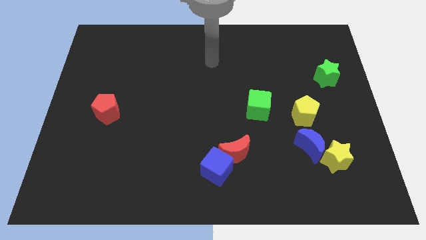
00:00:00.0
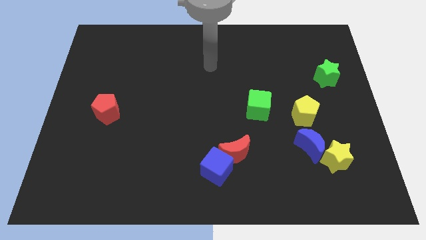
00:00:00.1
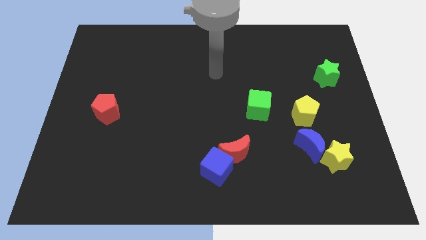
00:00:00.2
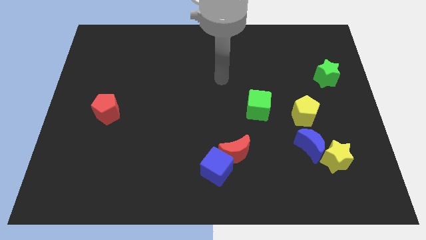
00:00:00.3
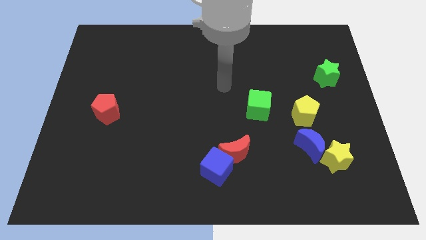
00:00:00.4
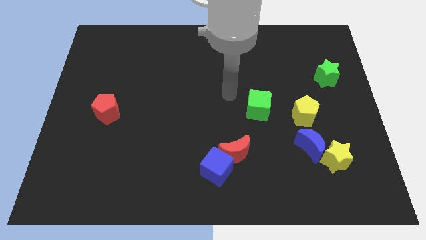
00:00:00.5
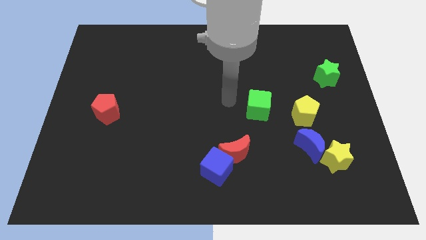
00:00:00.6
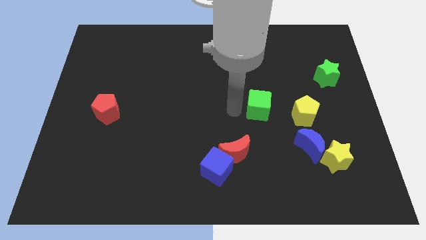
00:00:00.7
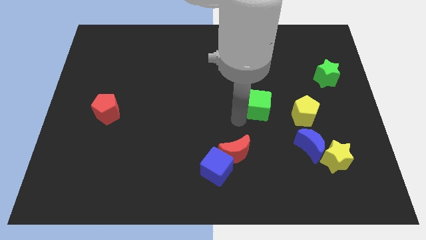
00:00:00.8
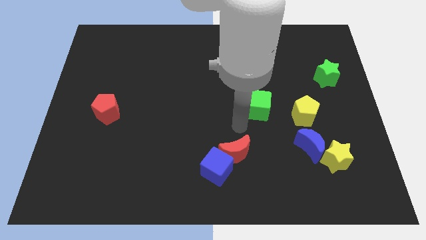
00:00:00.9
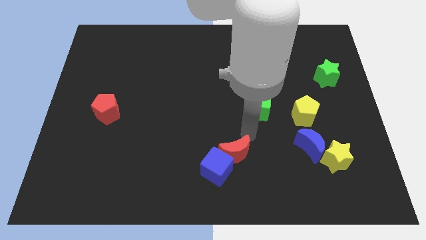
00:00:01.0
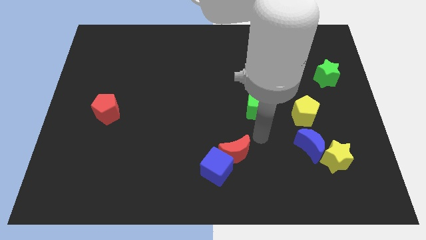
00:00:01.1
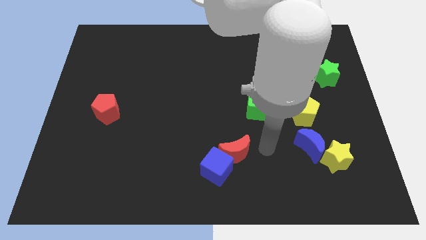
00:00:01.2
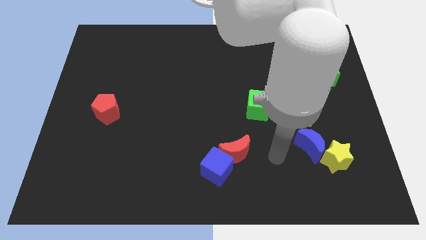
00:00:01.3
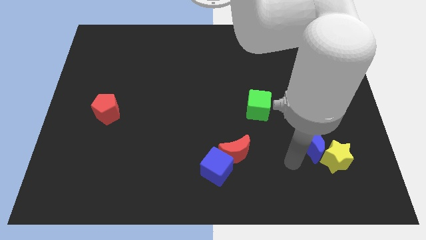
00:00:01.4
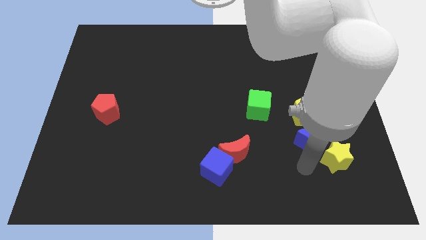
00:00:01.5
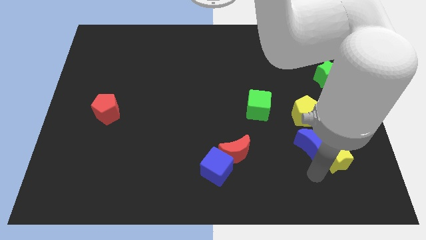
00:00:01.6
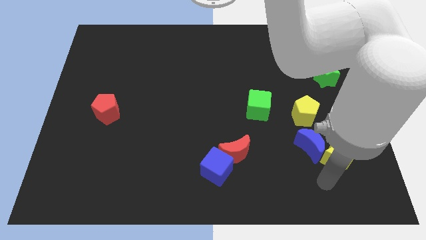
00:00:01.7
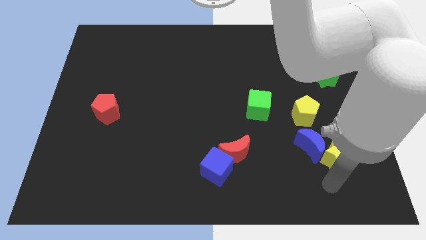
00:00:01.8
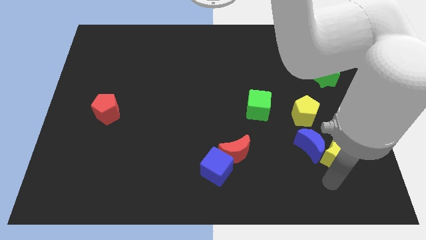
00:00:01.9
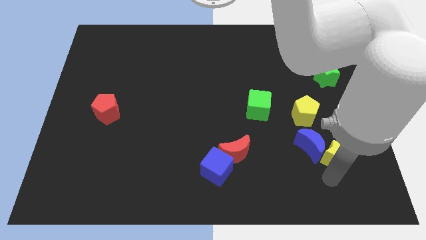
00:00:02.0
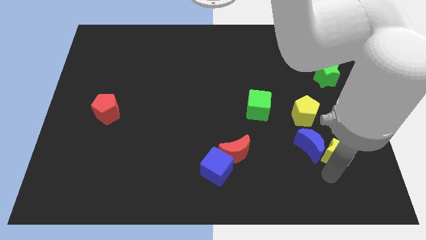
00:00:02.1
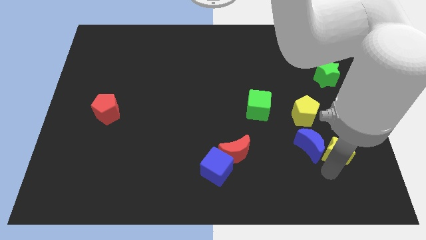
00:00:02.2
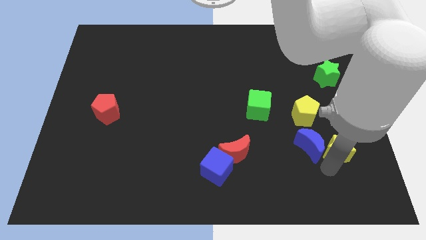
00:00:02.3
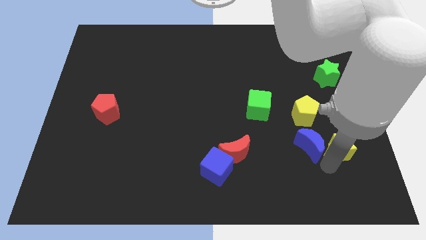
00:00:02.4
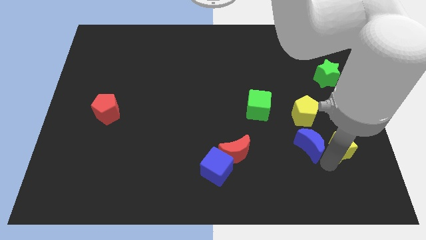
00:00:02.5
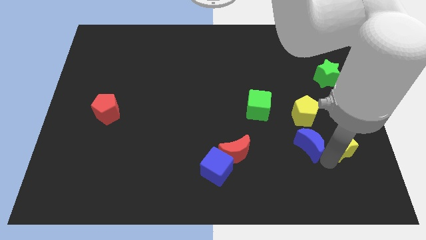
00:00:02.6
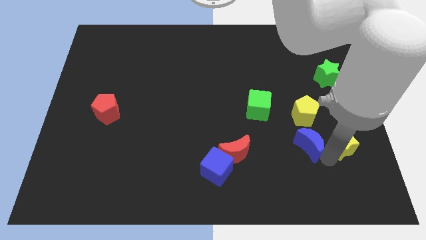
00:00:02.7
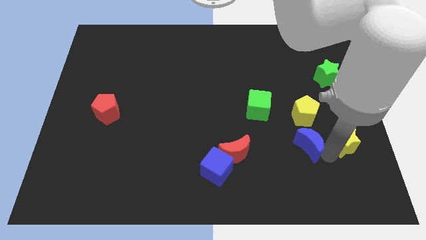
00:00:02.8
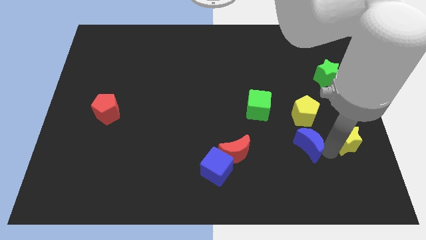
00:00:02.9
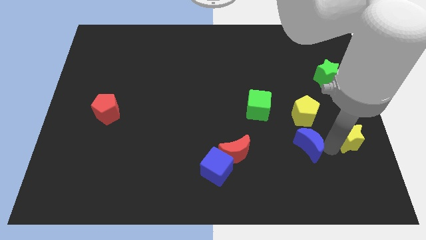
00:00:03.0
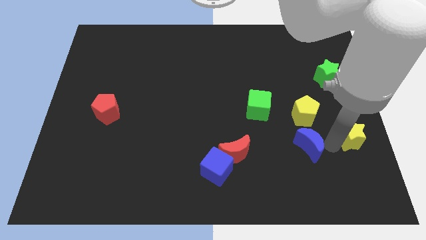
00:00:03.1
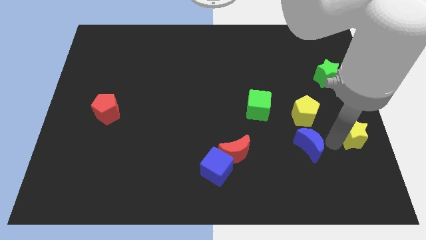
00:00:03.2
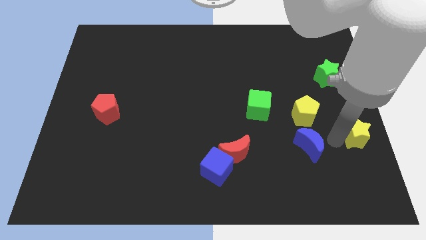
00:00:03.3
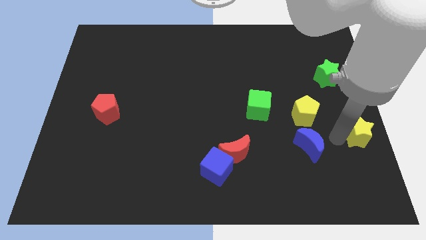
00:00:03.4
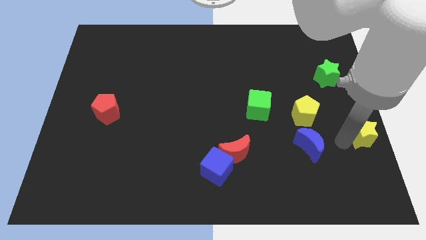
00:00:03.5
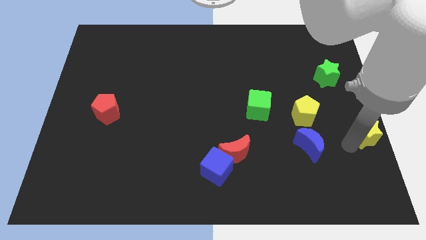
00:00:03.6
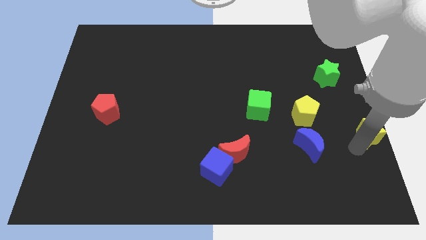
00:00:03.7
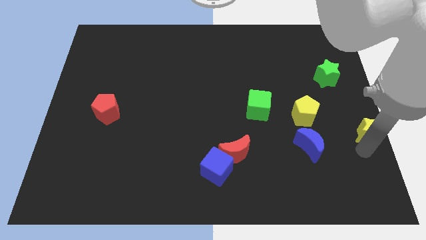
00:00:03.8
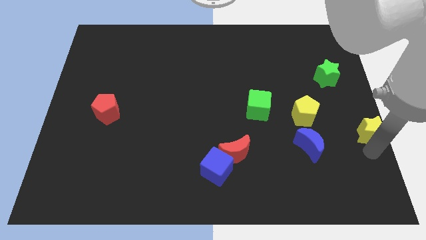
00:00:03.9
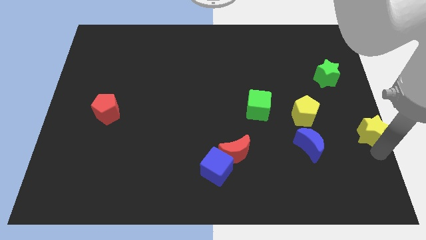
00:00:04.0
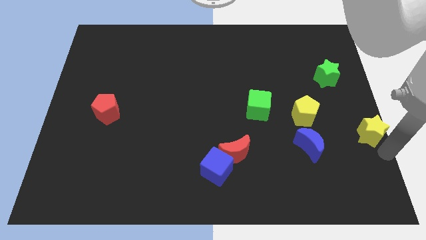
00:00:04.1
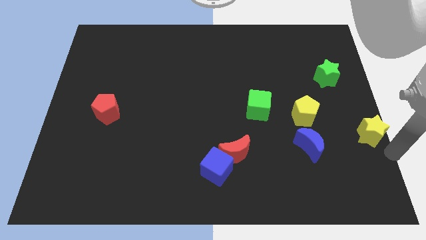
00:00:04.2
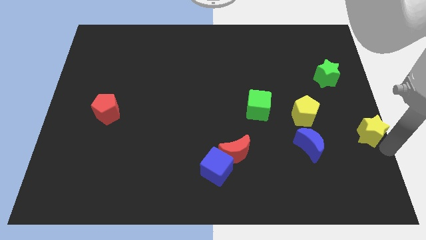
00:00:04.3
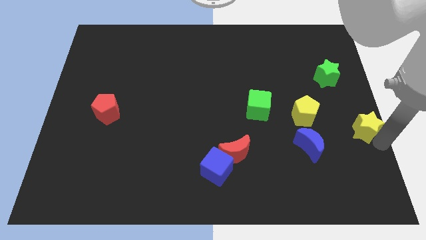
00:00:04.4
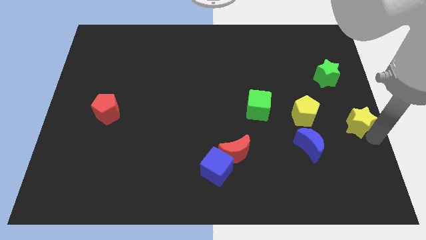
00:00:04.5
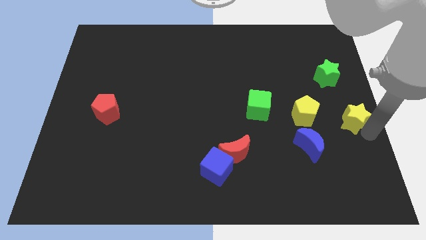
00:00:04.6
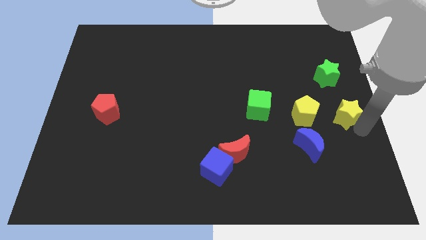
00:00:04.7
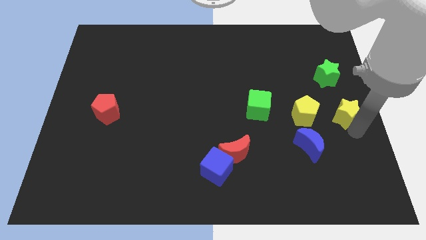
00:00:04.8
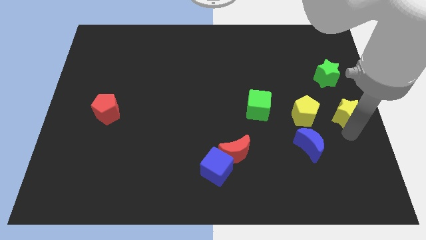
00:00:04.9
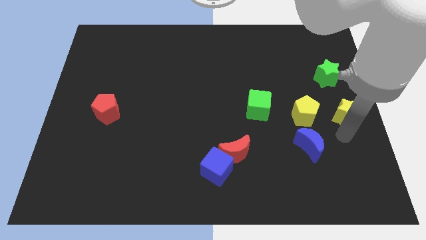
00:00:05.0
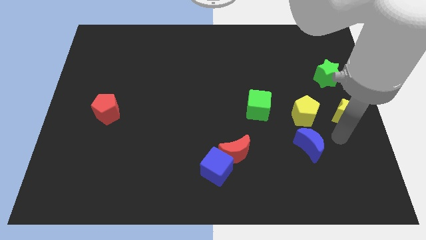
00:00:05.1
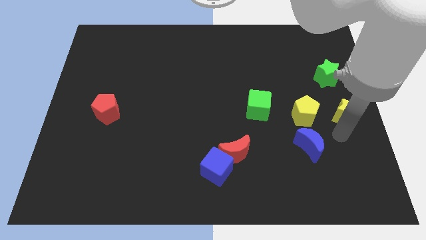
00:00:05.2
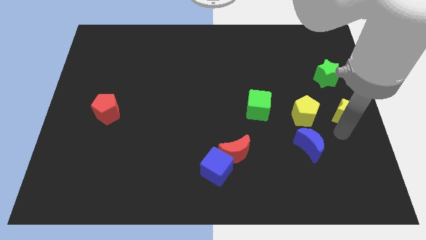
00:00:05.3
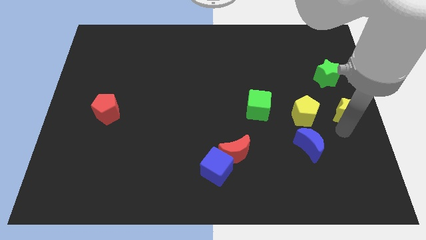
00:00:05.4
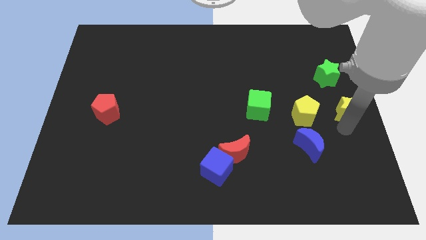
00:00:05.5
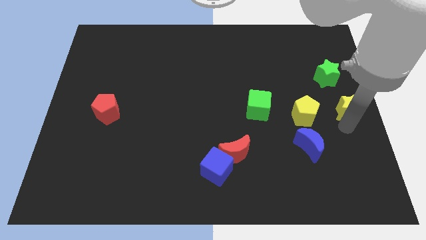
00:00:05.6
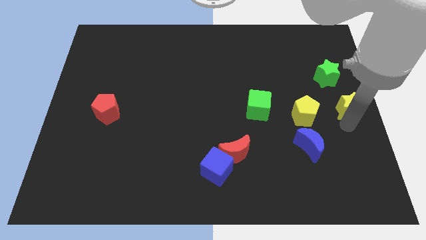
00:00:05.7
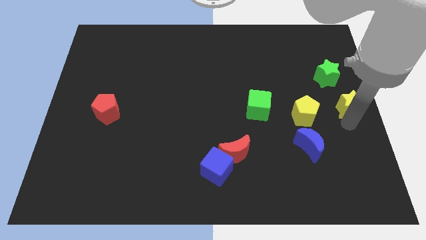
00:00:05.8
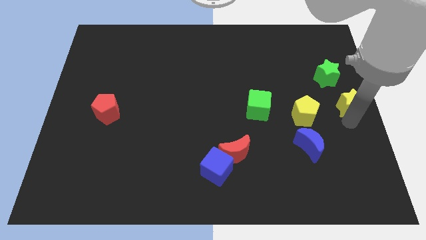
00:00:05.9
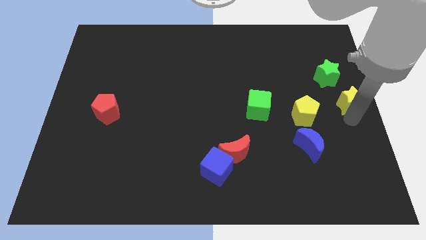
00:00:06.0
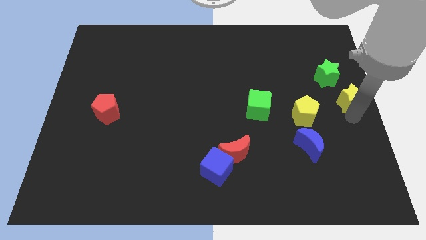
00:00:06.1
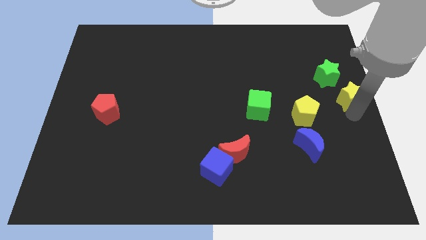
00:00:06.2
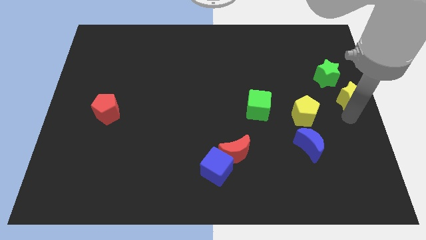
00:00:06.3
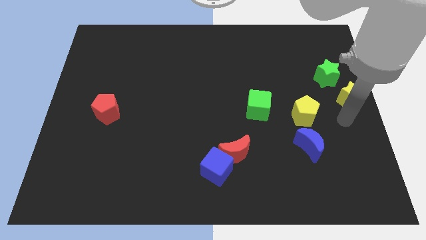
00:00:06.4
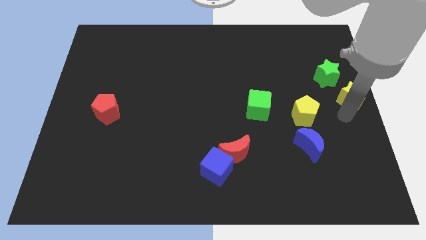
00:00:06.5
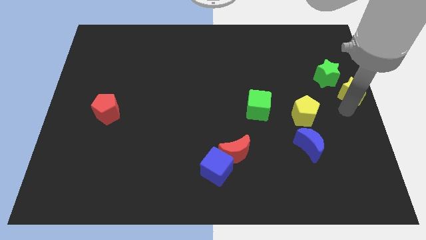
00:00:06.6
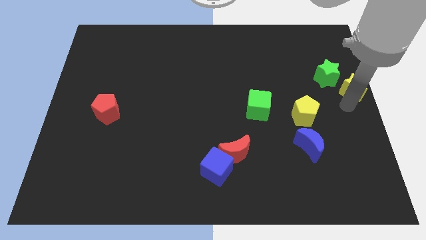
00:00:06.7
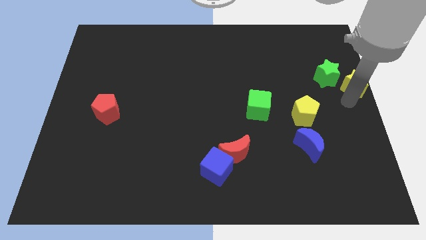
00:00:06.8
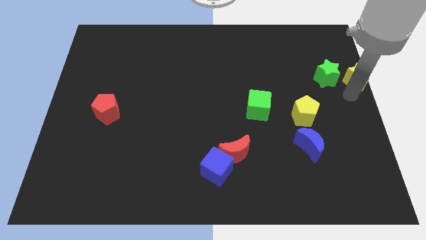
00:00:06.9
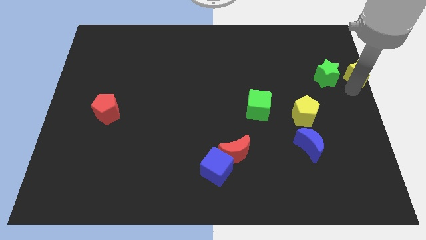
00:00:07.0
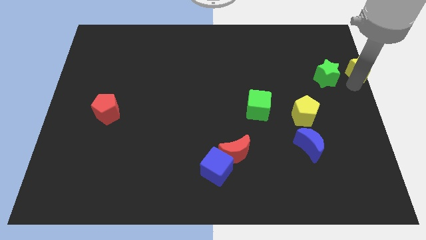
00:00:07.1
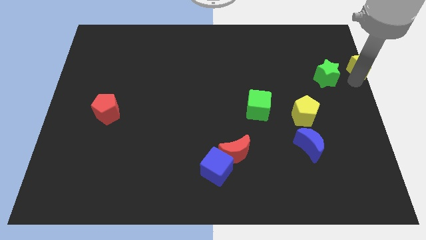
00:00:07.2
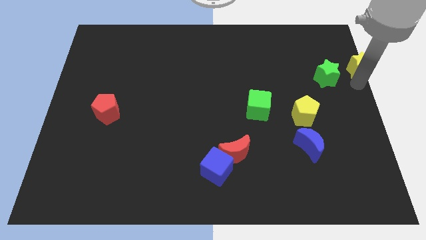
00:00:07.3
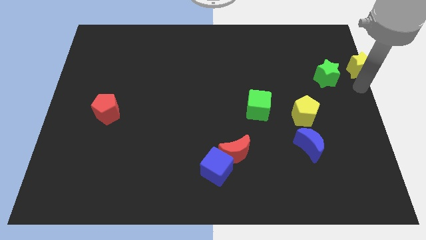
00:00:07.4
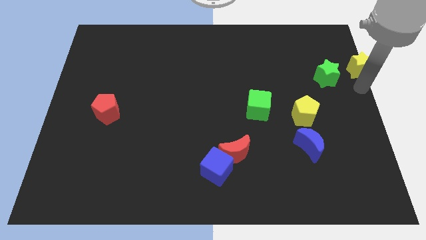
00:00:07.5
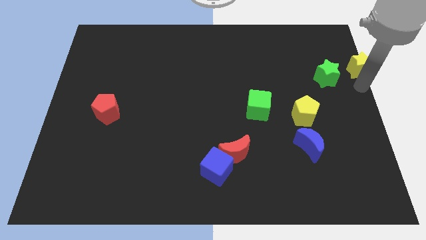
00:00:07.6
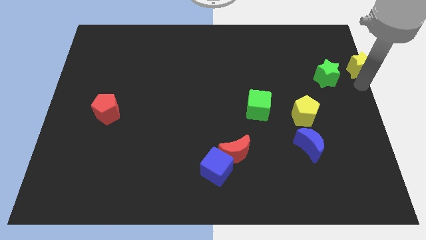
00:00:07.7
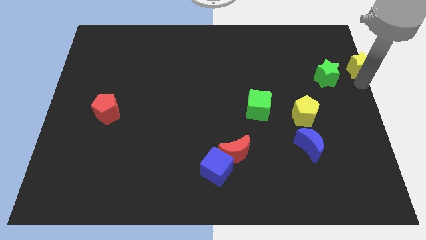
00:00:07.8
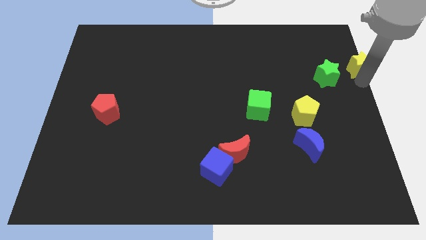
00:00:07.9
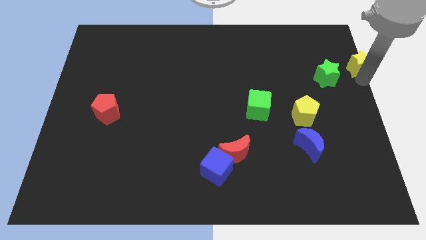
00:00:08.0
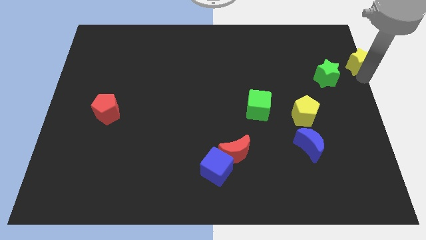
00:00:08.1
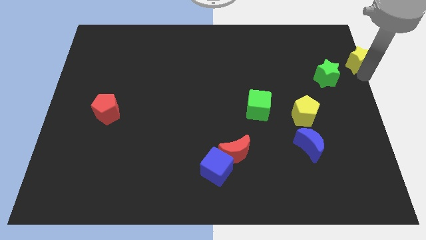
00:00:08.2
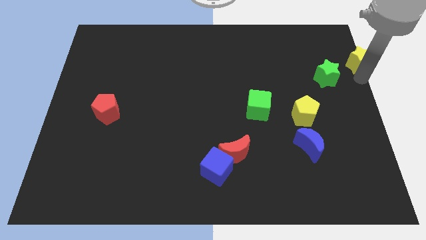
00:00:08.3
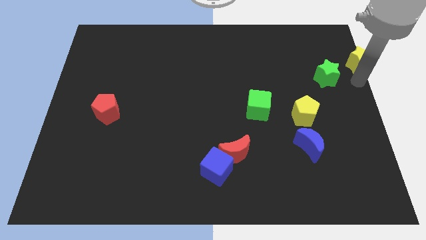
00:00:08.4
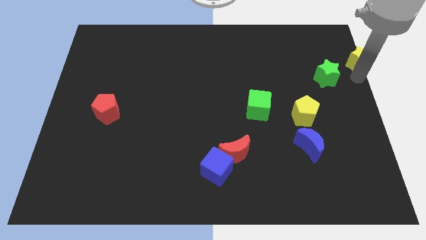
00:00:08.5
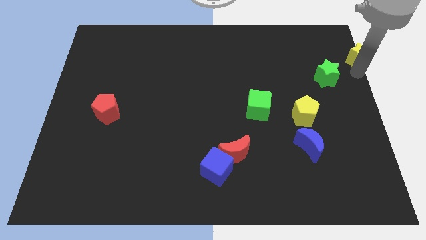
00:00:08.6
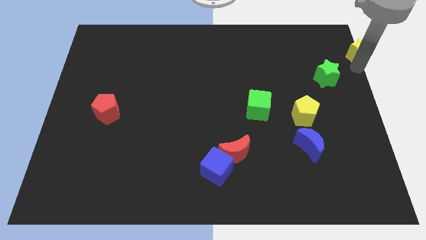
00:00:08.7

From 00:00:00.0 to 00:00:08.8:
slide the yellow star to the top right
